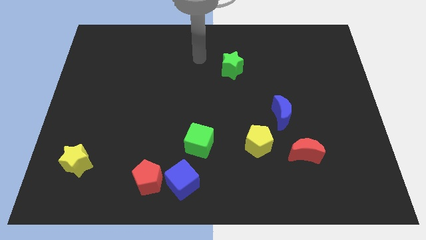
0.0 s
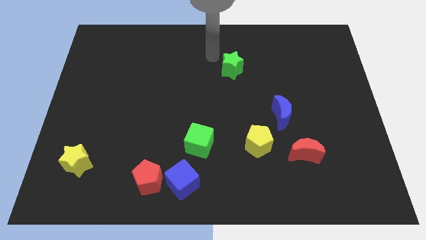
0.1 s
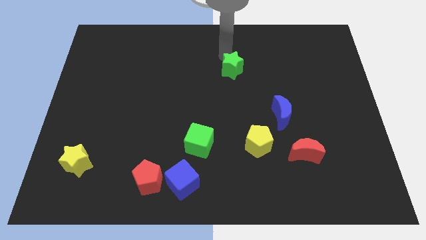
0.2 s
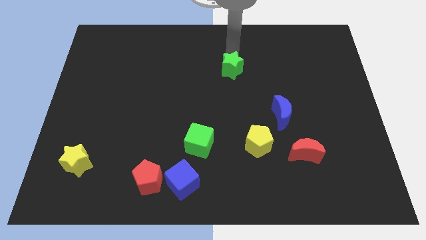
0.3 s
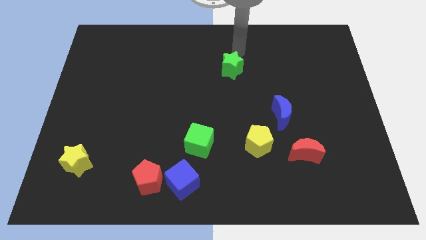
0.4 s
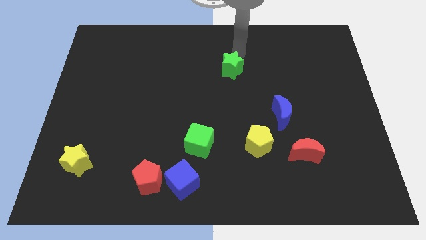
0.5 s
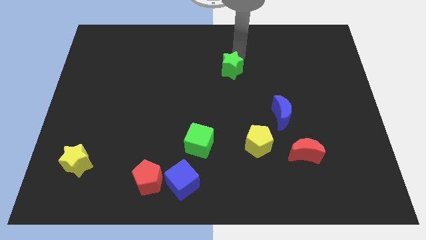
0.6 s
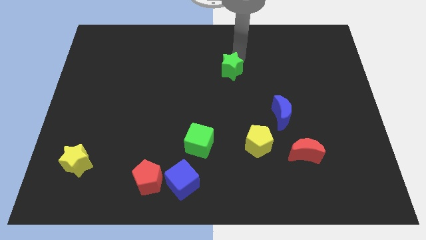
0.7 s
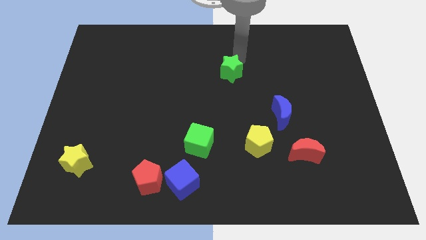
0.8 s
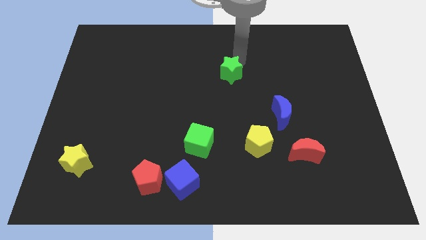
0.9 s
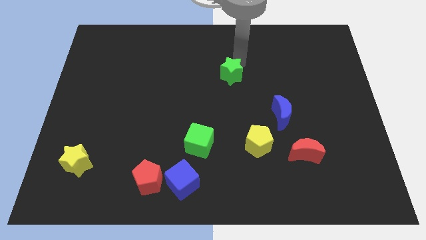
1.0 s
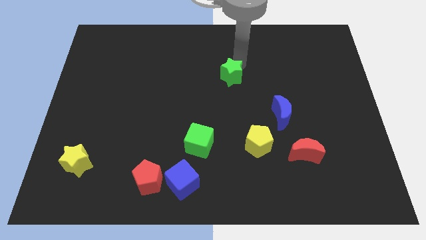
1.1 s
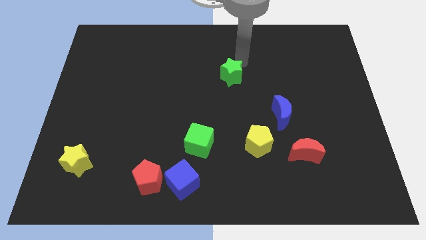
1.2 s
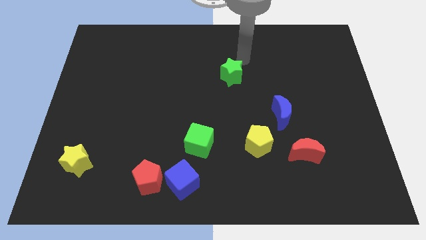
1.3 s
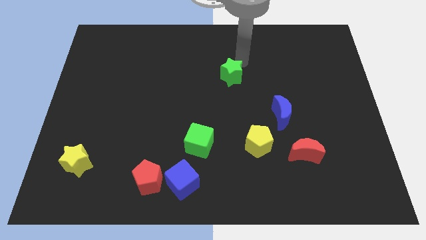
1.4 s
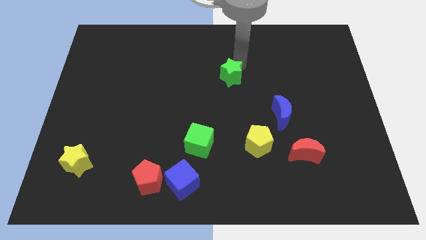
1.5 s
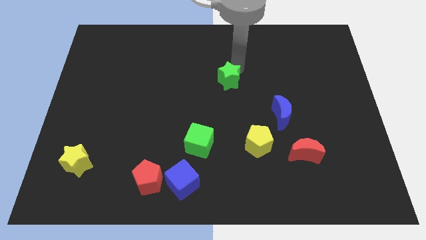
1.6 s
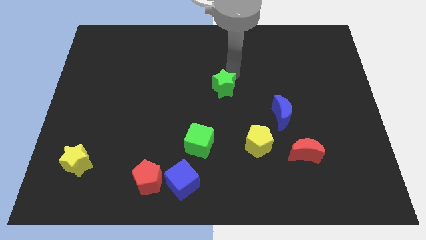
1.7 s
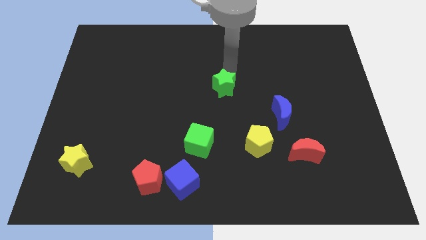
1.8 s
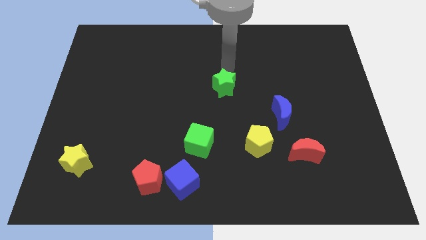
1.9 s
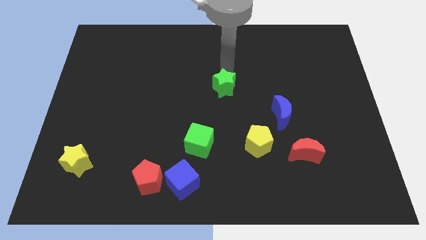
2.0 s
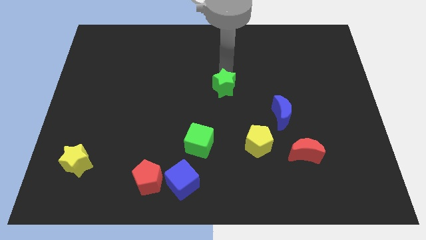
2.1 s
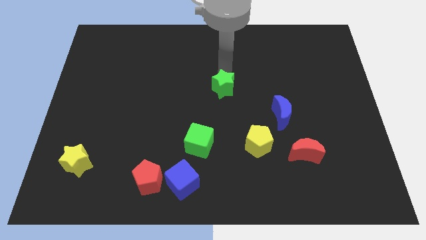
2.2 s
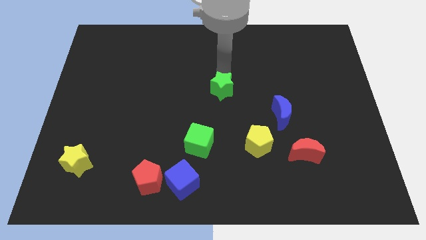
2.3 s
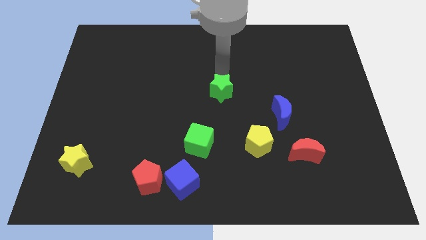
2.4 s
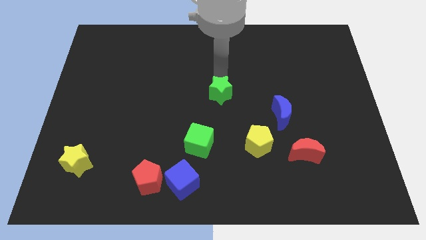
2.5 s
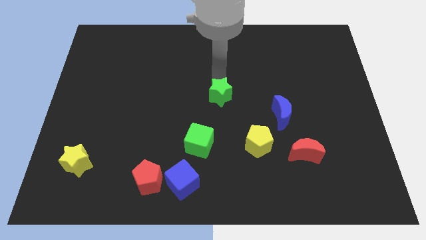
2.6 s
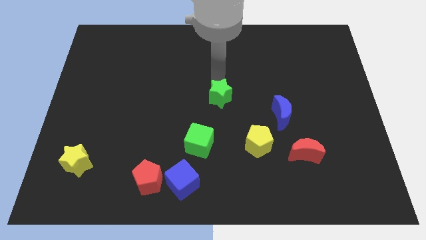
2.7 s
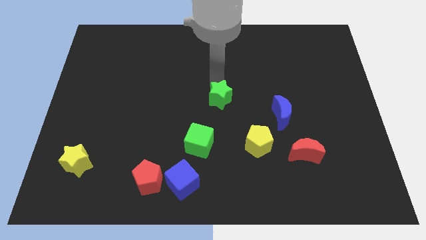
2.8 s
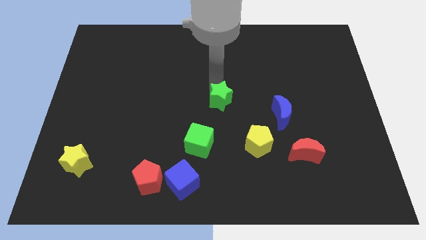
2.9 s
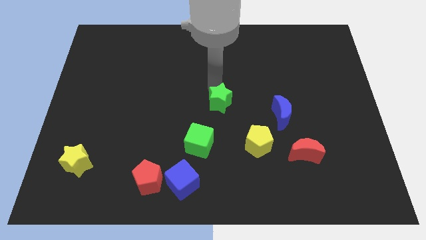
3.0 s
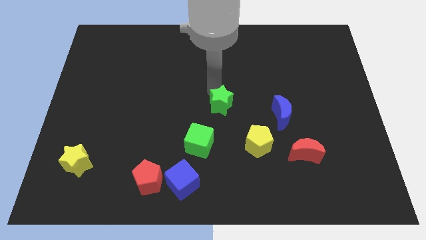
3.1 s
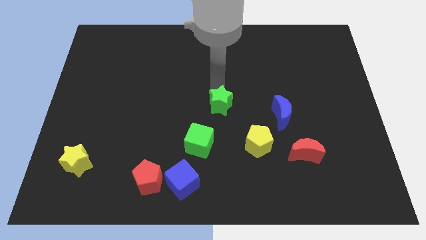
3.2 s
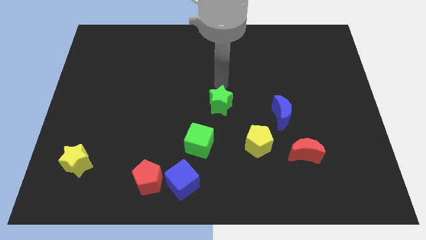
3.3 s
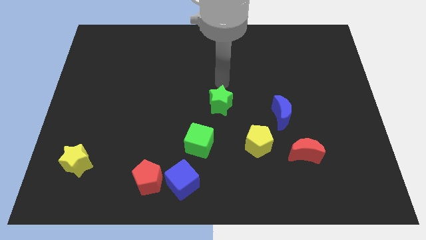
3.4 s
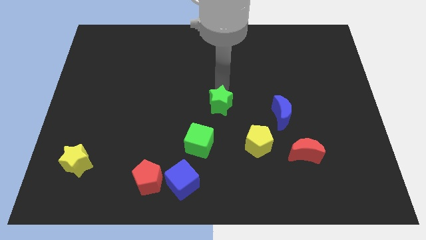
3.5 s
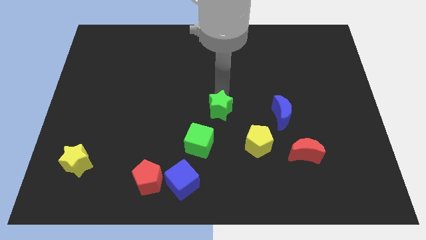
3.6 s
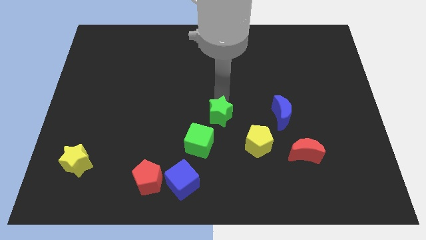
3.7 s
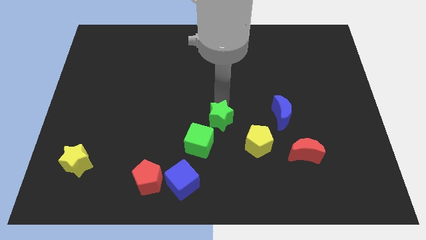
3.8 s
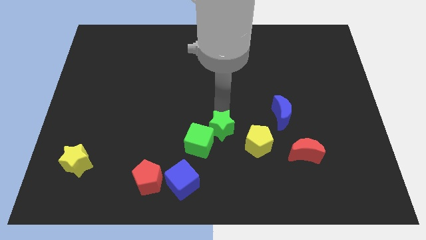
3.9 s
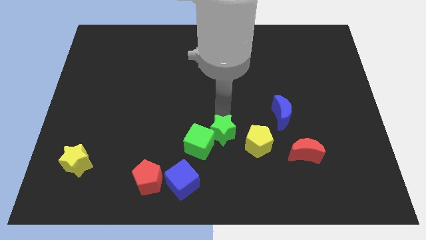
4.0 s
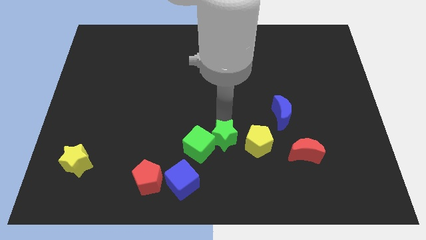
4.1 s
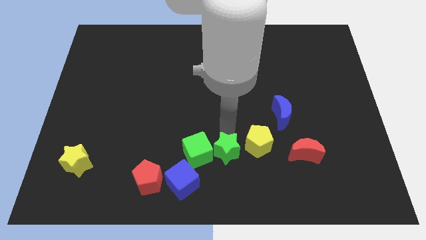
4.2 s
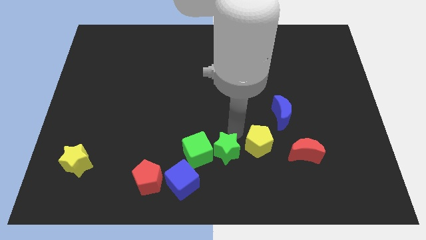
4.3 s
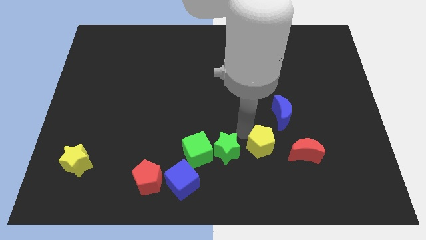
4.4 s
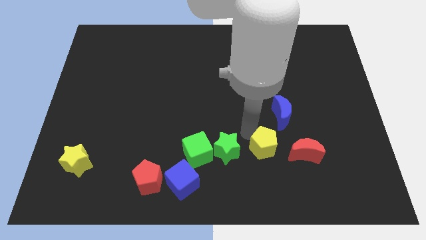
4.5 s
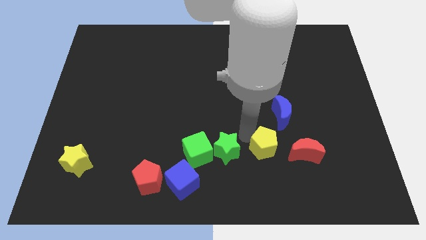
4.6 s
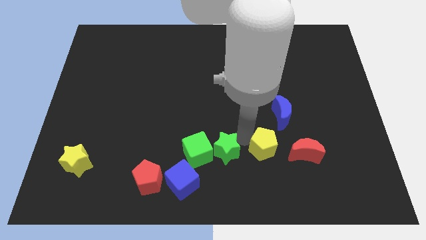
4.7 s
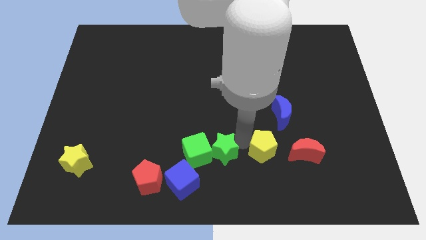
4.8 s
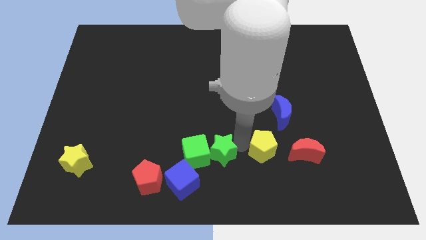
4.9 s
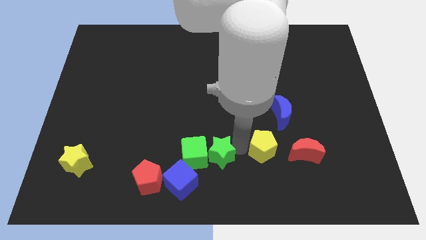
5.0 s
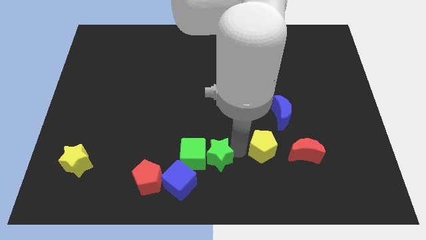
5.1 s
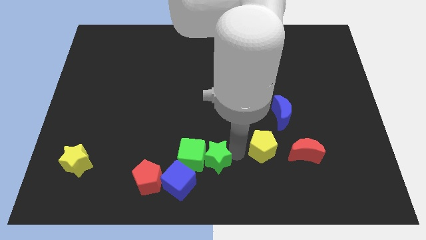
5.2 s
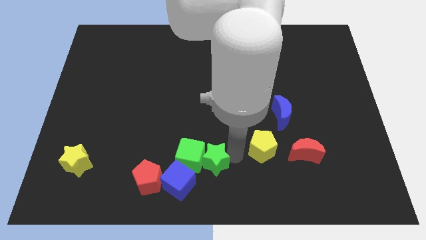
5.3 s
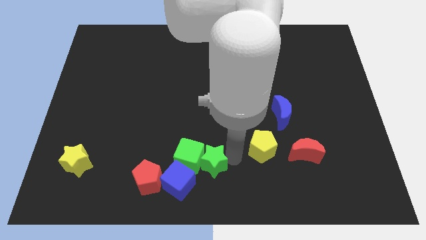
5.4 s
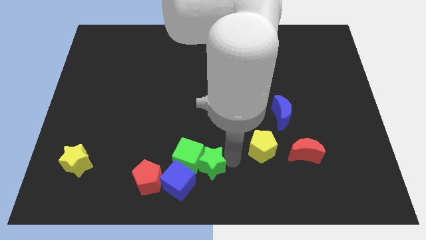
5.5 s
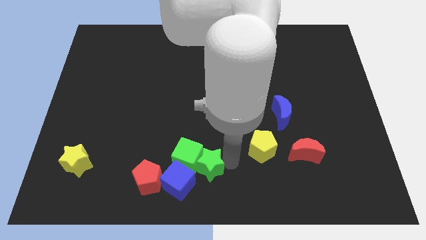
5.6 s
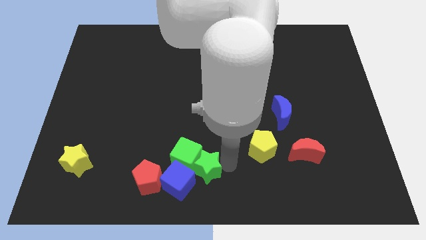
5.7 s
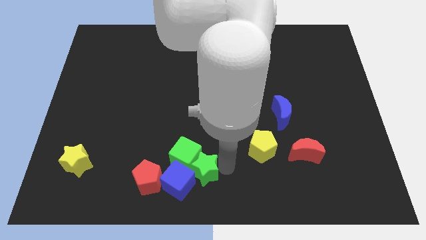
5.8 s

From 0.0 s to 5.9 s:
move the green star towards the blue cube

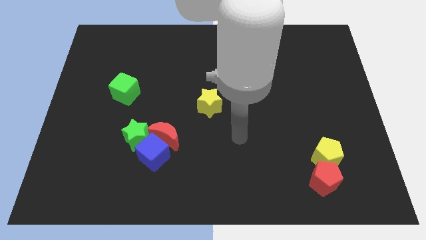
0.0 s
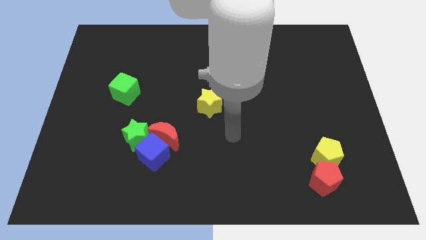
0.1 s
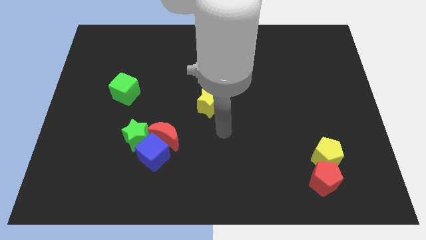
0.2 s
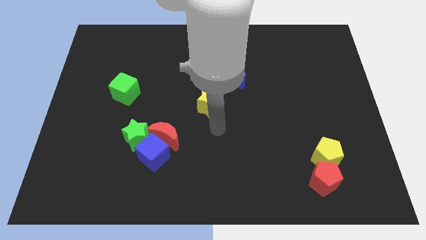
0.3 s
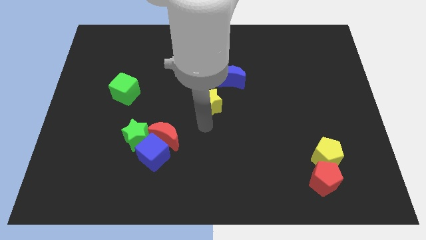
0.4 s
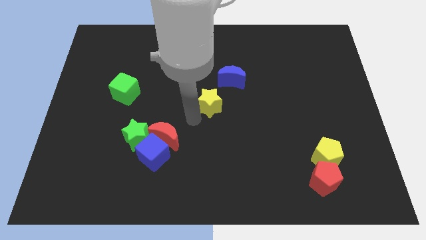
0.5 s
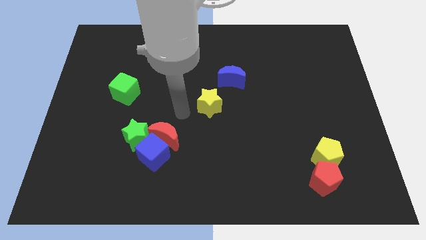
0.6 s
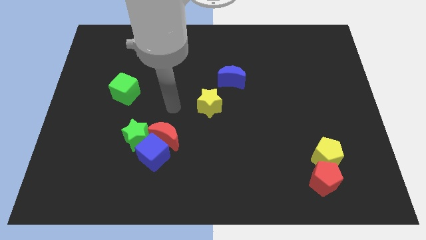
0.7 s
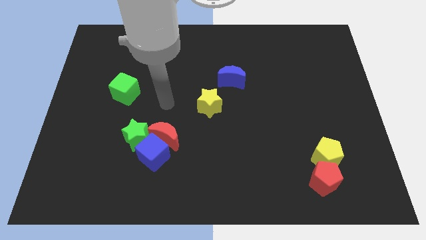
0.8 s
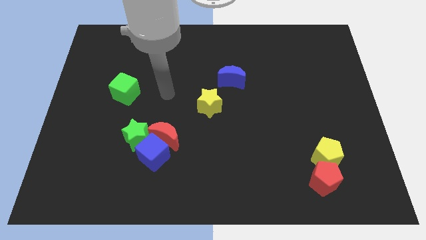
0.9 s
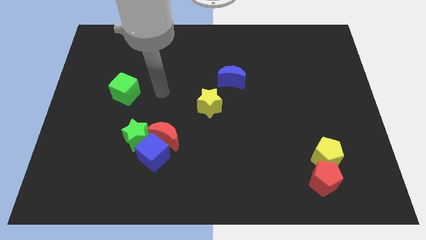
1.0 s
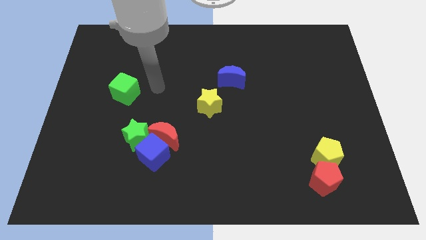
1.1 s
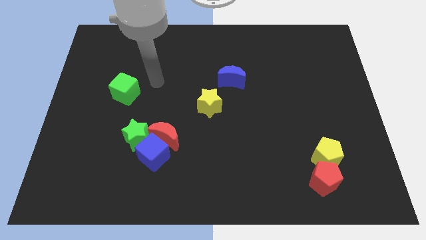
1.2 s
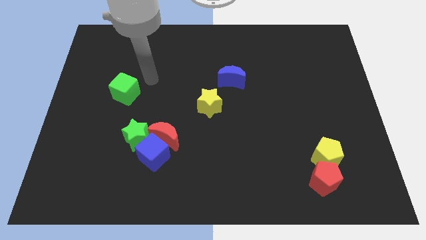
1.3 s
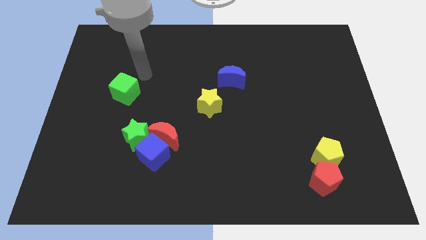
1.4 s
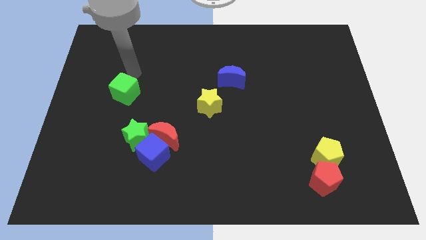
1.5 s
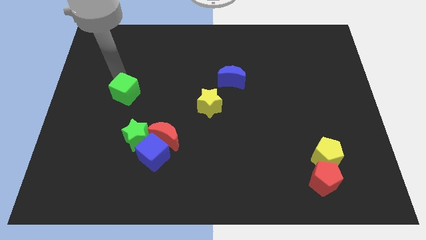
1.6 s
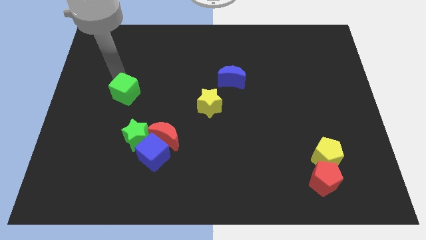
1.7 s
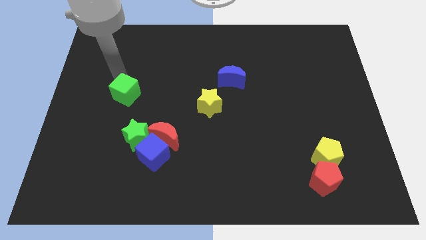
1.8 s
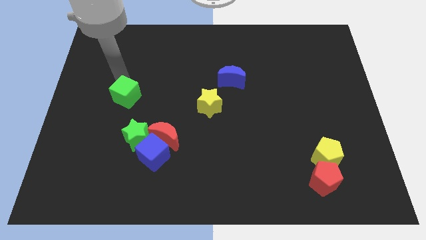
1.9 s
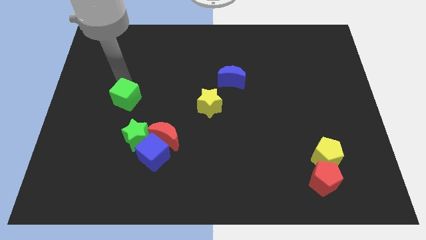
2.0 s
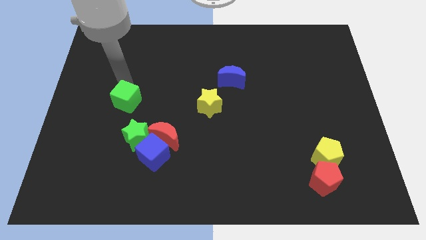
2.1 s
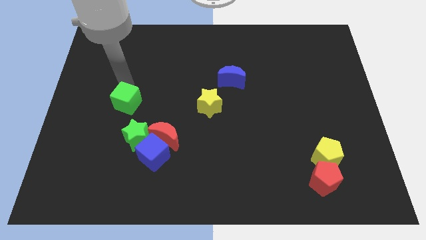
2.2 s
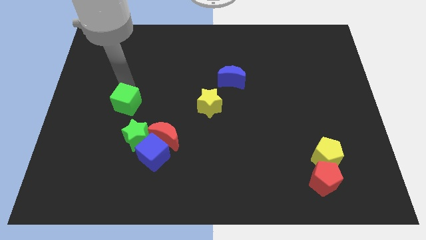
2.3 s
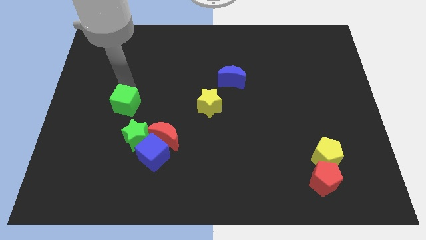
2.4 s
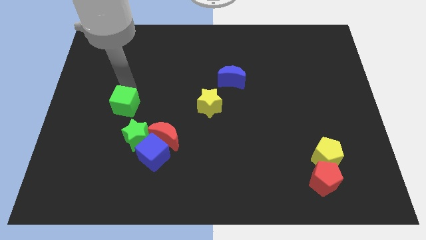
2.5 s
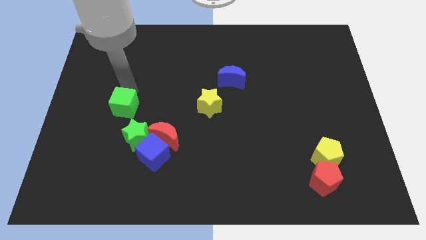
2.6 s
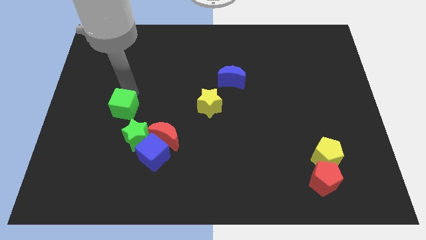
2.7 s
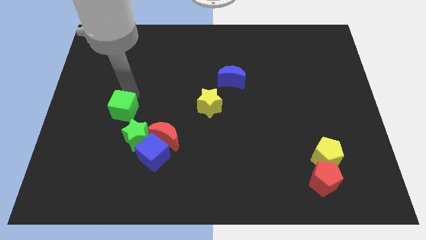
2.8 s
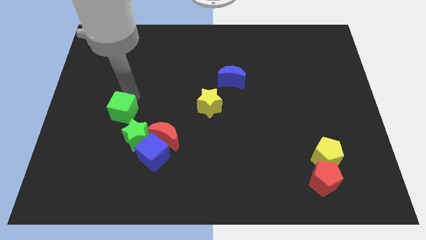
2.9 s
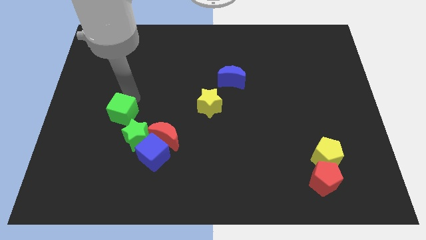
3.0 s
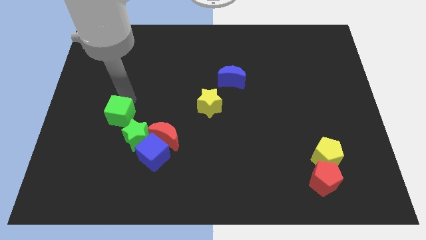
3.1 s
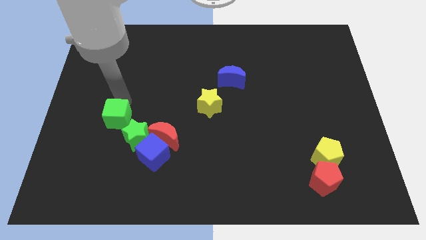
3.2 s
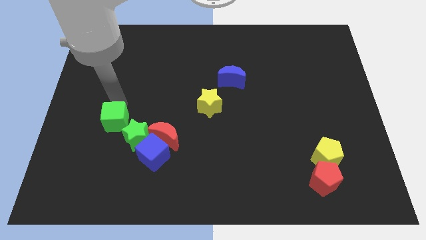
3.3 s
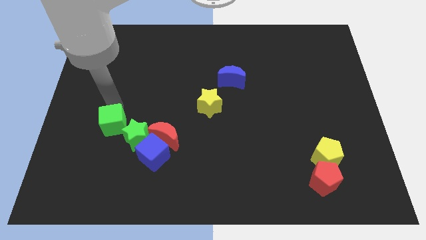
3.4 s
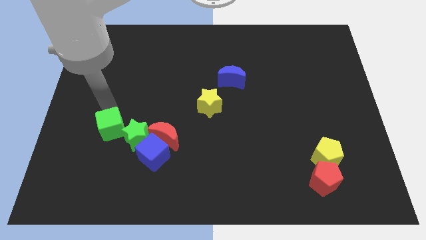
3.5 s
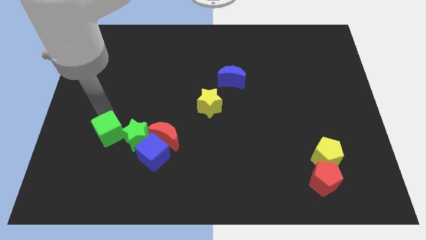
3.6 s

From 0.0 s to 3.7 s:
slide the green cube next to the green star
